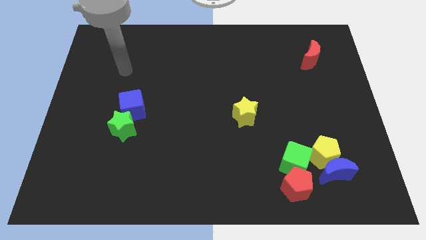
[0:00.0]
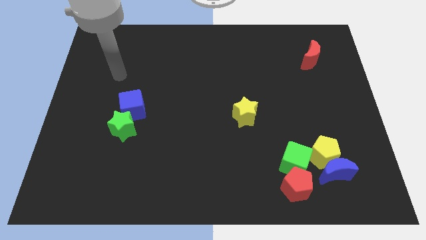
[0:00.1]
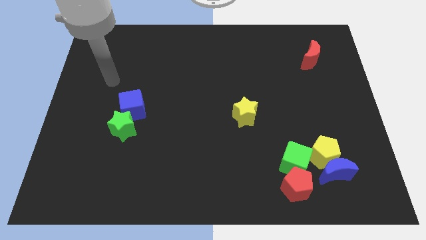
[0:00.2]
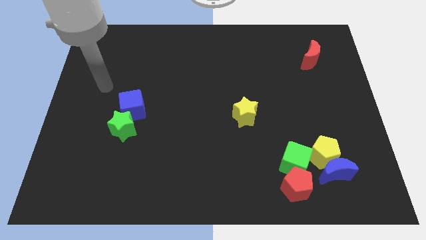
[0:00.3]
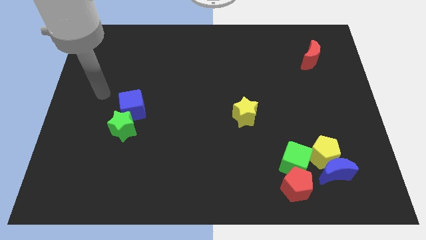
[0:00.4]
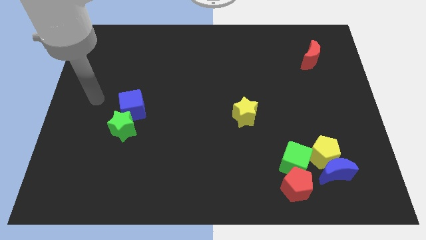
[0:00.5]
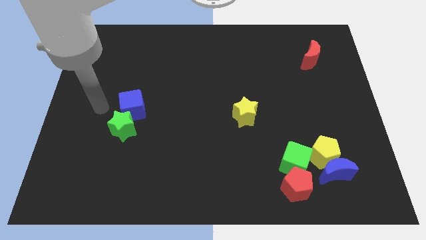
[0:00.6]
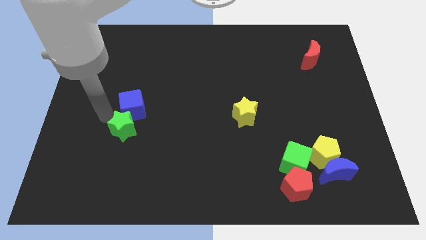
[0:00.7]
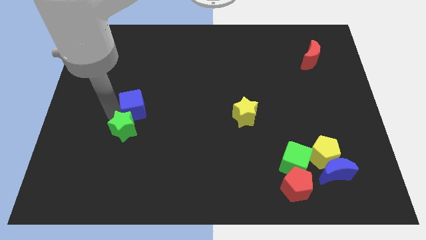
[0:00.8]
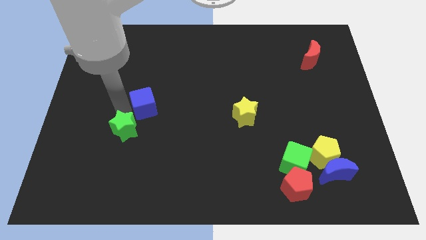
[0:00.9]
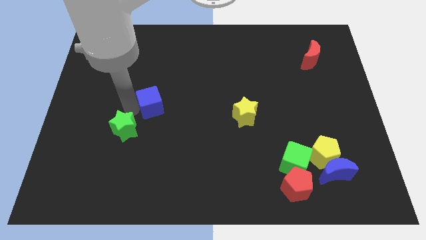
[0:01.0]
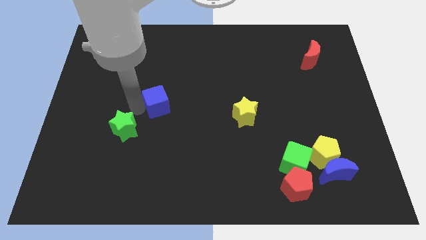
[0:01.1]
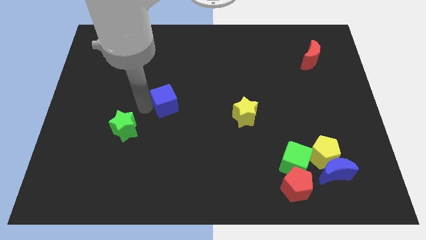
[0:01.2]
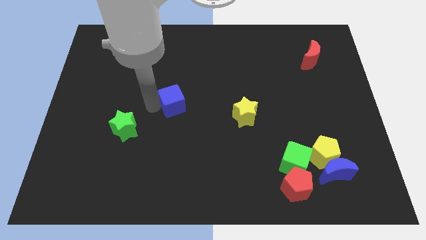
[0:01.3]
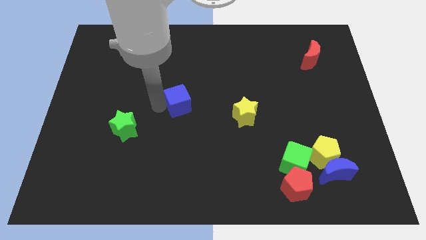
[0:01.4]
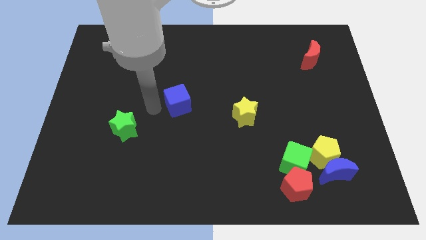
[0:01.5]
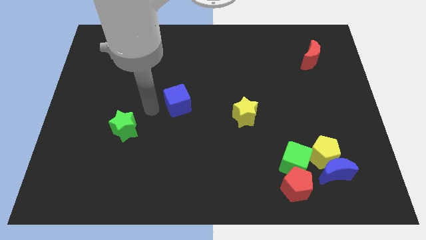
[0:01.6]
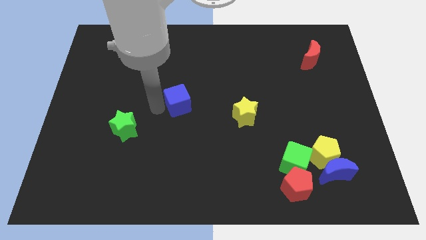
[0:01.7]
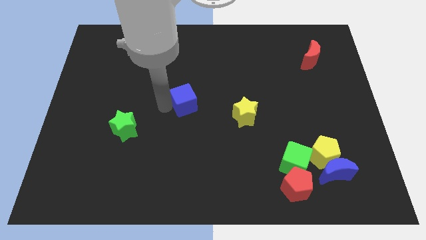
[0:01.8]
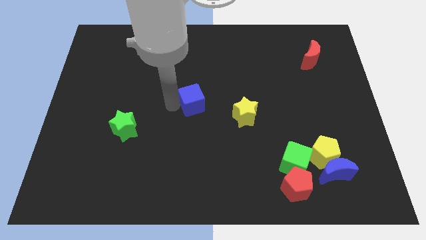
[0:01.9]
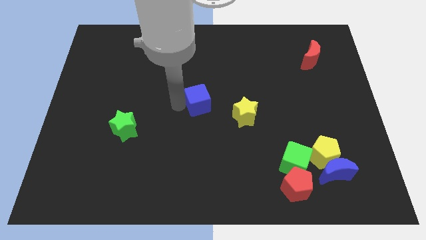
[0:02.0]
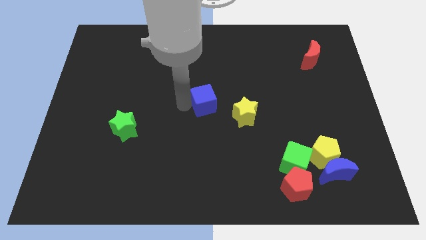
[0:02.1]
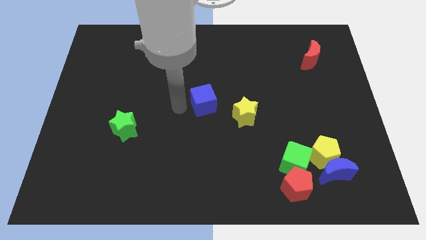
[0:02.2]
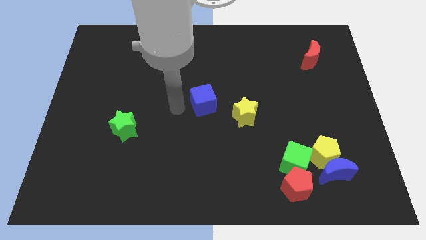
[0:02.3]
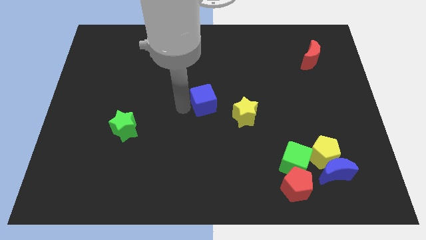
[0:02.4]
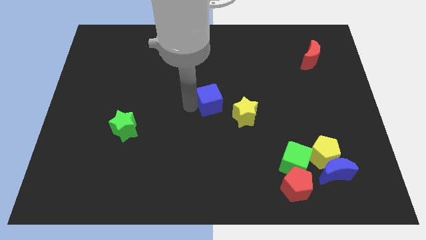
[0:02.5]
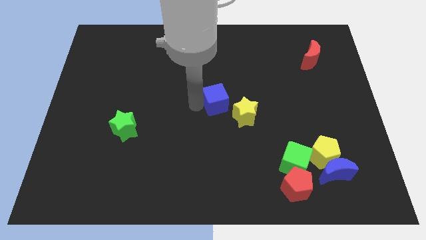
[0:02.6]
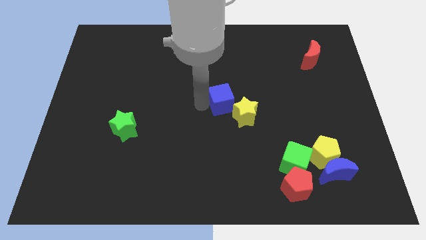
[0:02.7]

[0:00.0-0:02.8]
push the blue cube right

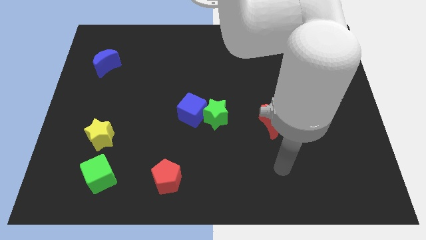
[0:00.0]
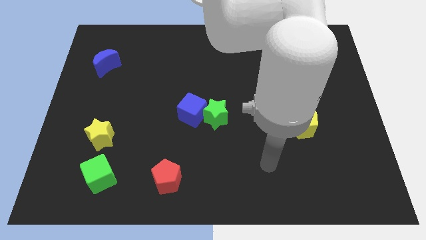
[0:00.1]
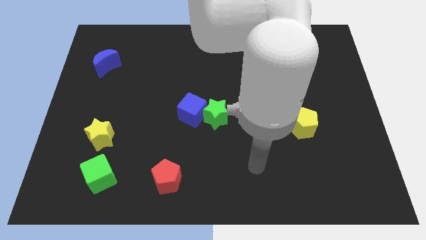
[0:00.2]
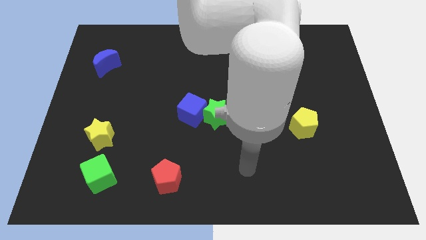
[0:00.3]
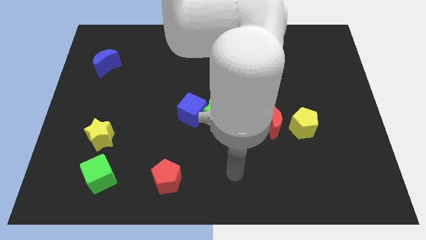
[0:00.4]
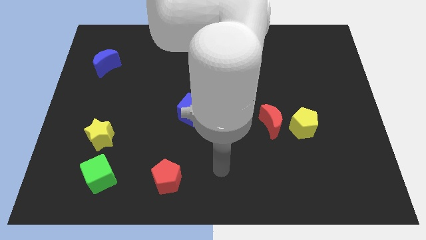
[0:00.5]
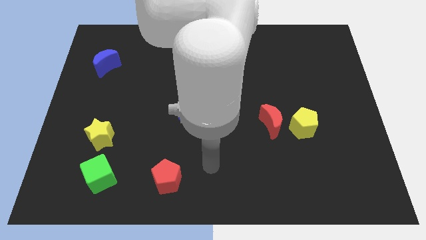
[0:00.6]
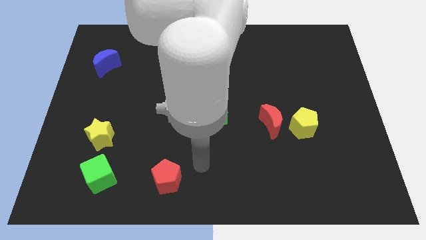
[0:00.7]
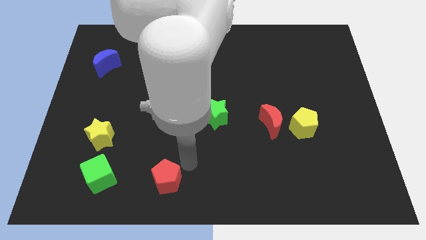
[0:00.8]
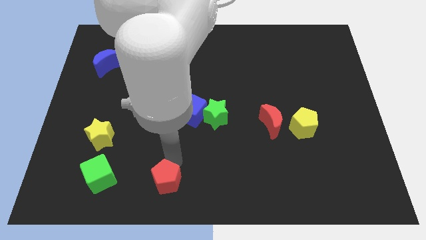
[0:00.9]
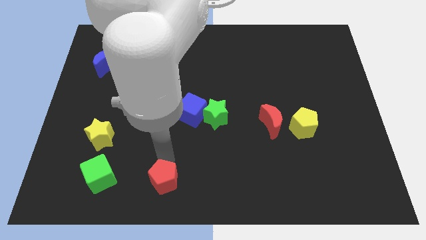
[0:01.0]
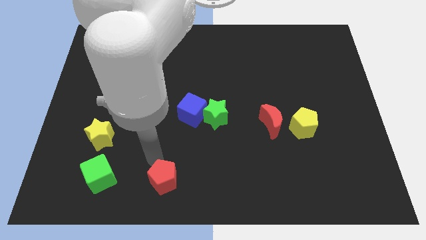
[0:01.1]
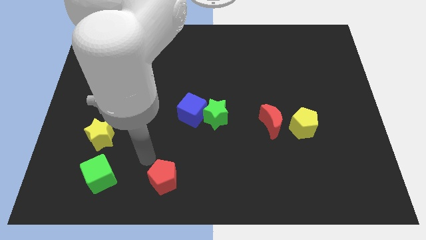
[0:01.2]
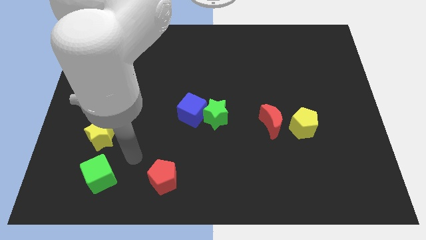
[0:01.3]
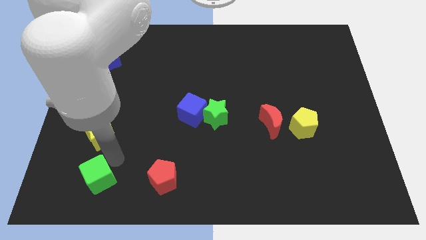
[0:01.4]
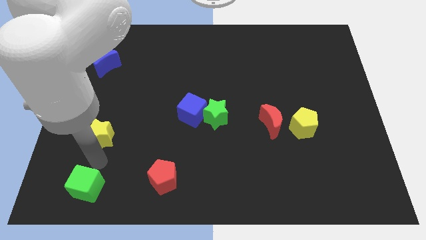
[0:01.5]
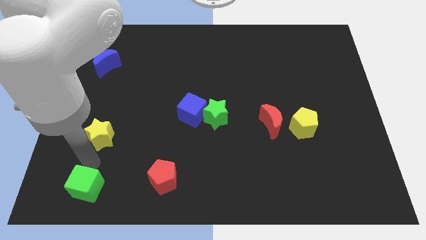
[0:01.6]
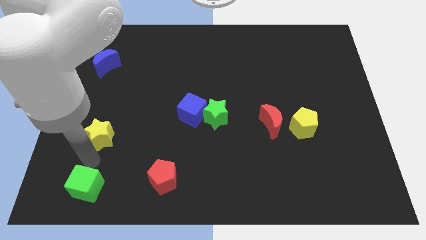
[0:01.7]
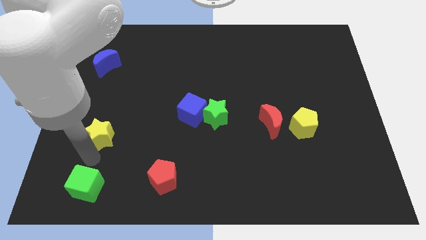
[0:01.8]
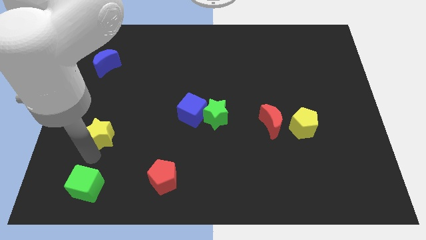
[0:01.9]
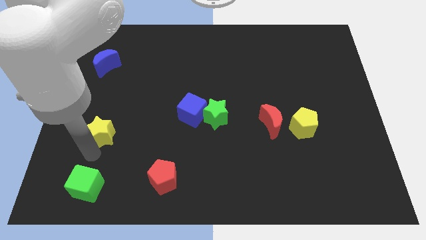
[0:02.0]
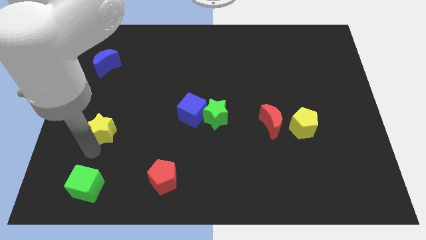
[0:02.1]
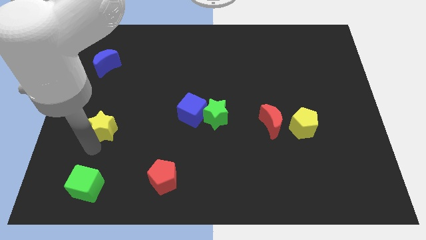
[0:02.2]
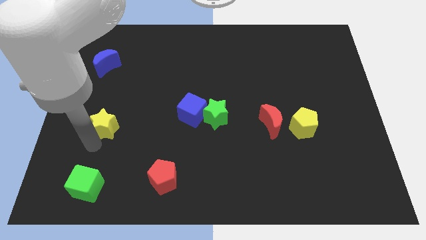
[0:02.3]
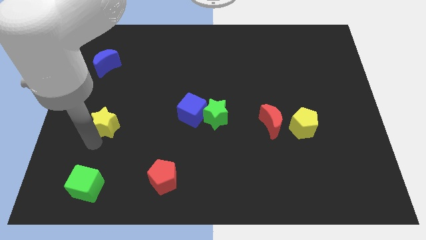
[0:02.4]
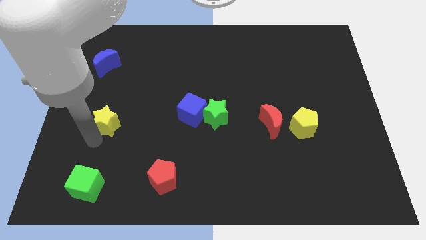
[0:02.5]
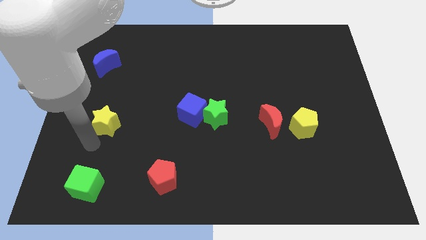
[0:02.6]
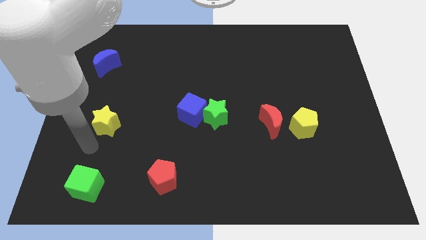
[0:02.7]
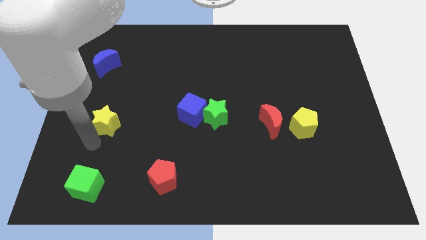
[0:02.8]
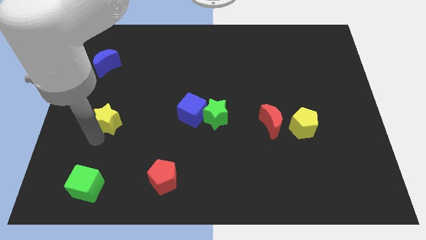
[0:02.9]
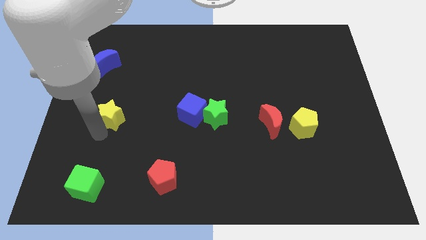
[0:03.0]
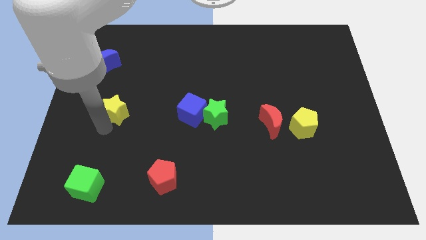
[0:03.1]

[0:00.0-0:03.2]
push the yellow star up slightly

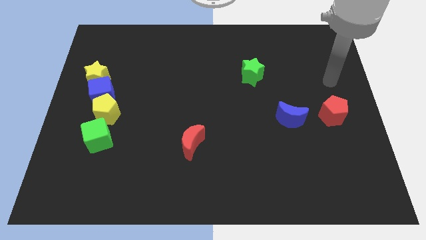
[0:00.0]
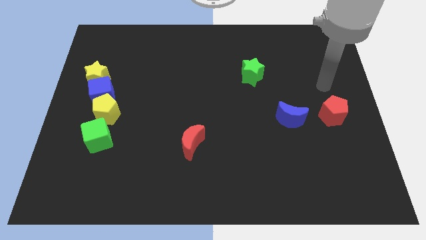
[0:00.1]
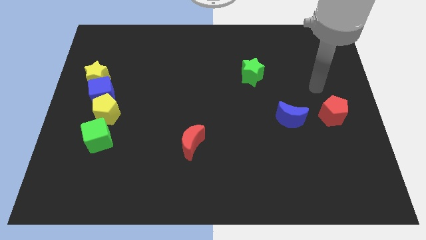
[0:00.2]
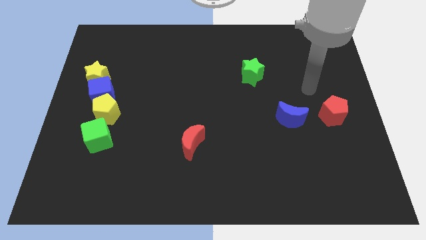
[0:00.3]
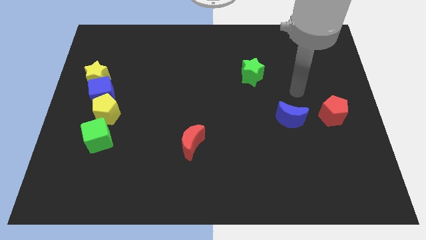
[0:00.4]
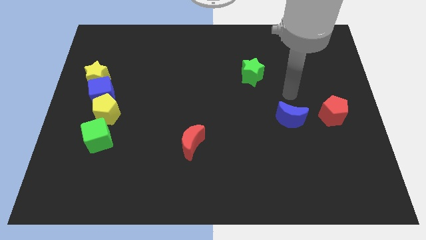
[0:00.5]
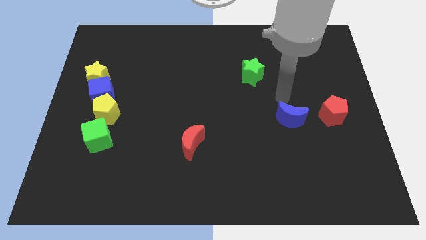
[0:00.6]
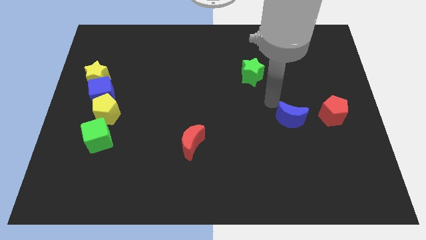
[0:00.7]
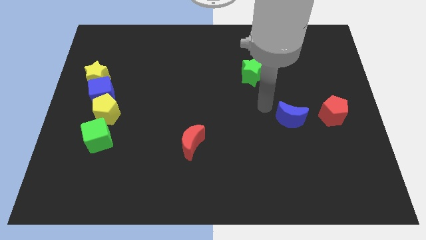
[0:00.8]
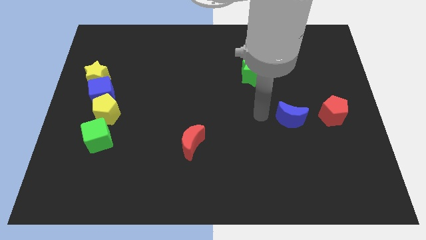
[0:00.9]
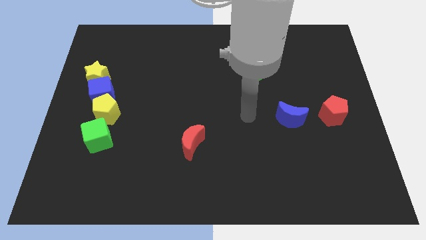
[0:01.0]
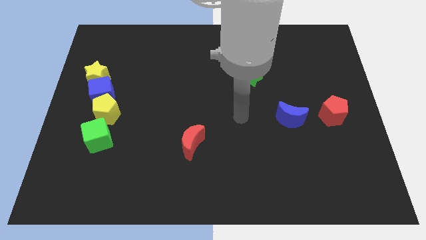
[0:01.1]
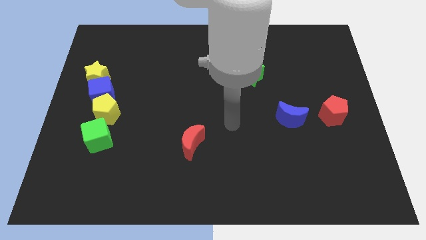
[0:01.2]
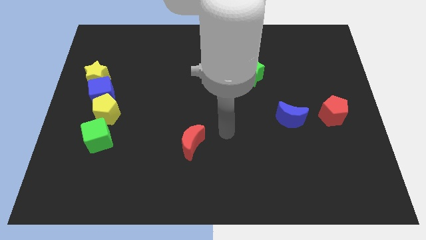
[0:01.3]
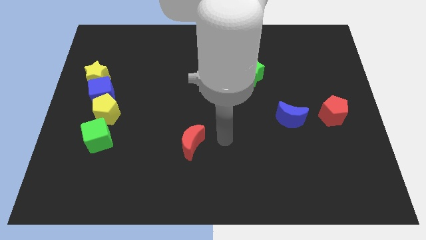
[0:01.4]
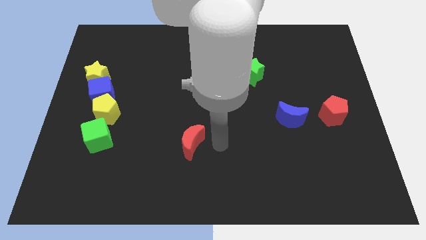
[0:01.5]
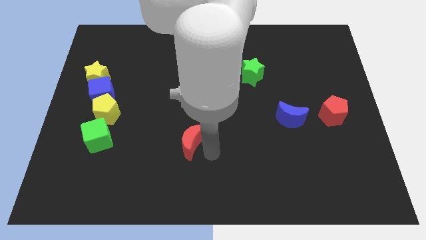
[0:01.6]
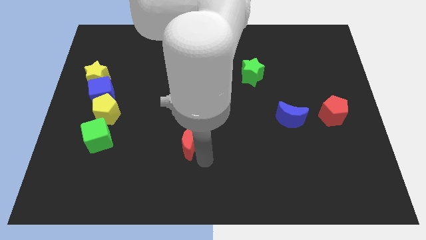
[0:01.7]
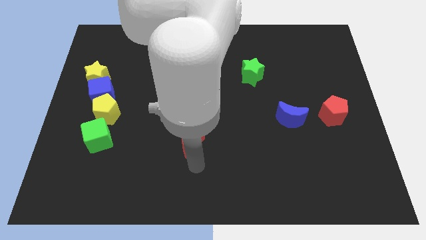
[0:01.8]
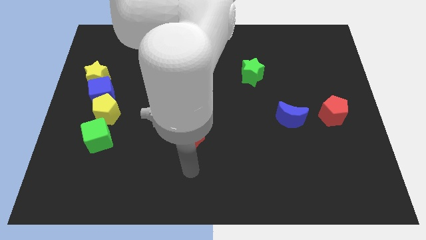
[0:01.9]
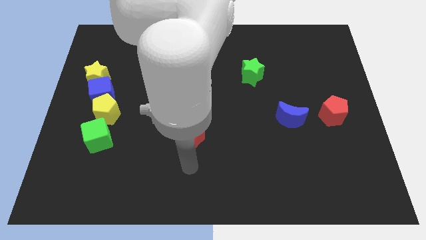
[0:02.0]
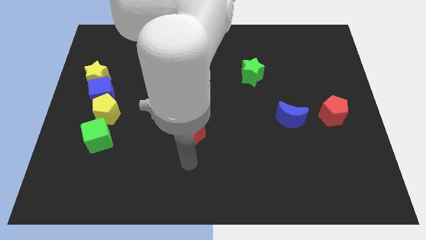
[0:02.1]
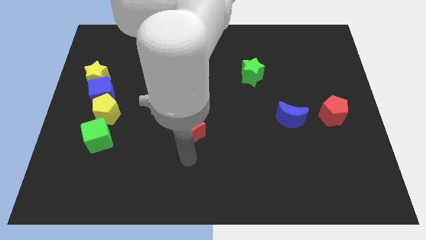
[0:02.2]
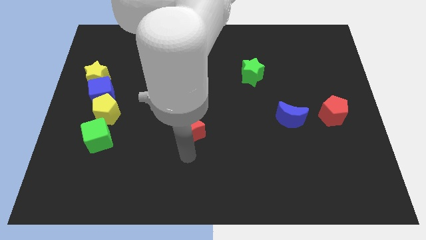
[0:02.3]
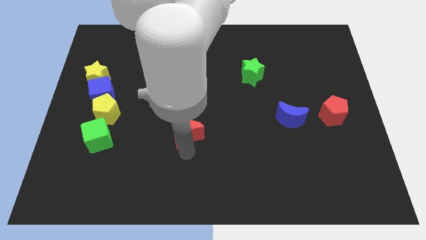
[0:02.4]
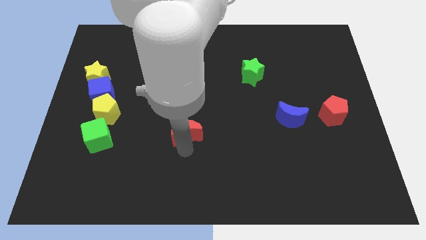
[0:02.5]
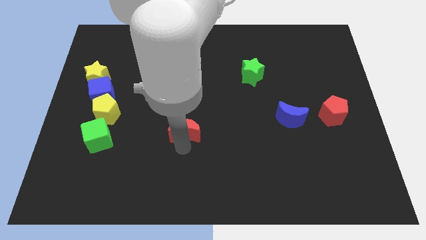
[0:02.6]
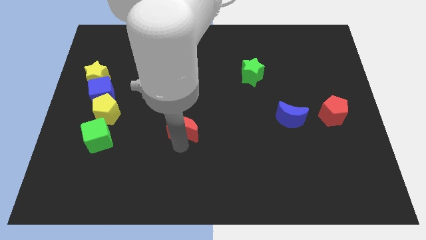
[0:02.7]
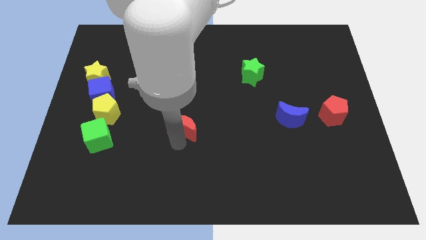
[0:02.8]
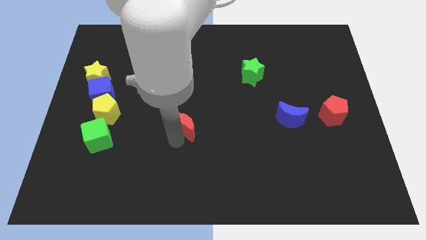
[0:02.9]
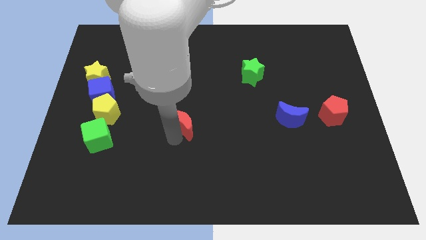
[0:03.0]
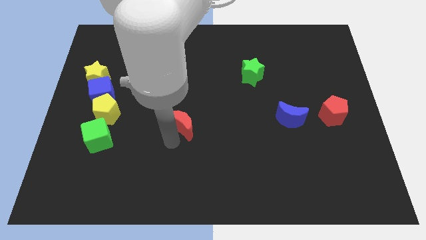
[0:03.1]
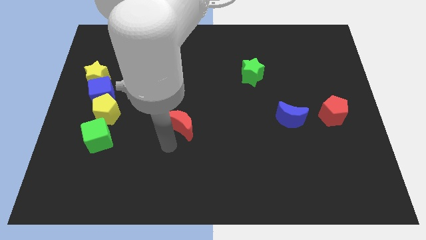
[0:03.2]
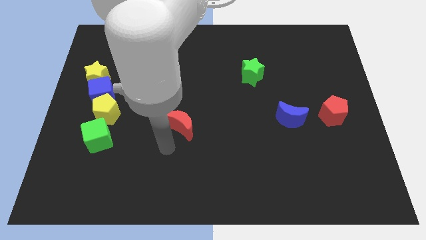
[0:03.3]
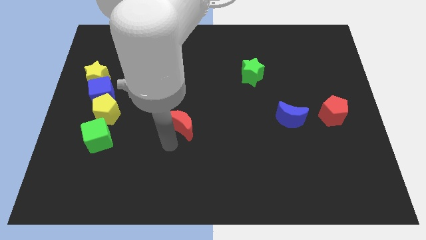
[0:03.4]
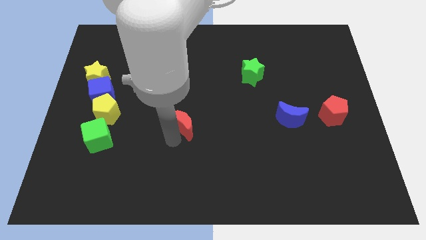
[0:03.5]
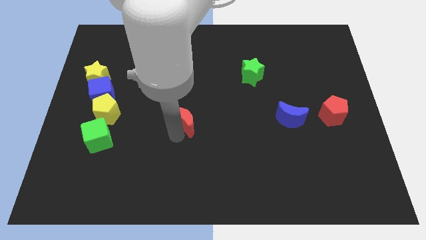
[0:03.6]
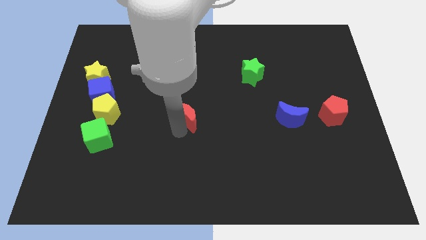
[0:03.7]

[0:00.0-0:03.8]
push the red moon a bit upwards
